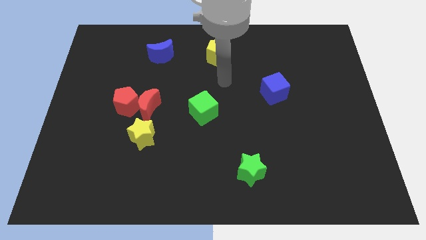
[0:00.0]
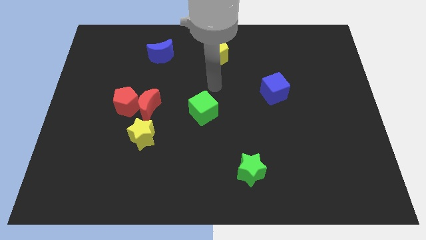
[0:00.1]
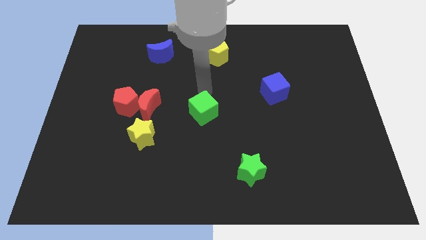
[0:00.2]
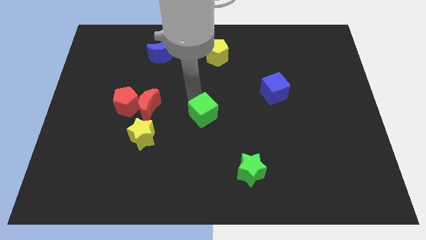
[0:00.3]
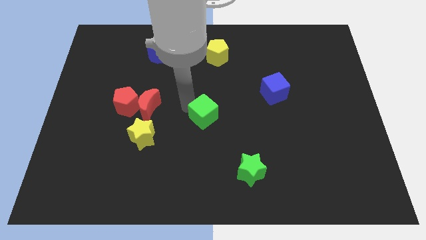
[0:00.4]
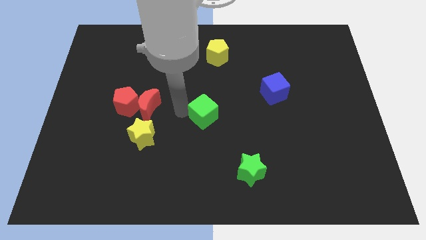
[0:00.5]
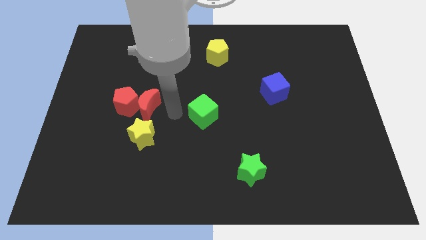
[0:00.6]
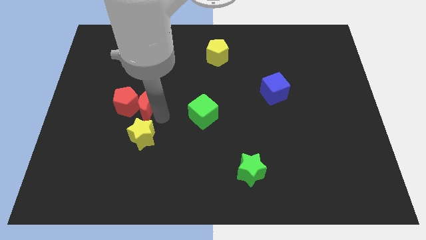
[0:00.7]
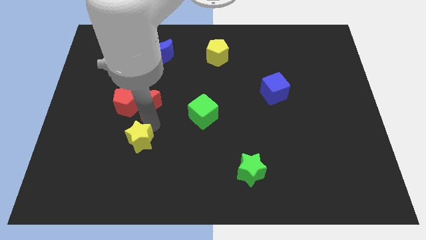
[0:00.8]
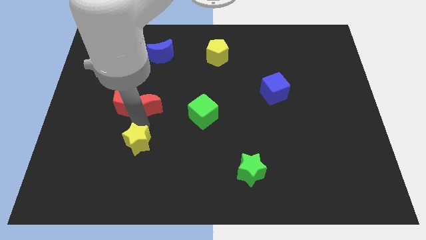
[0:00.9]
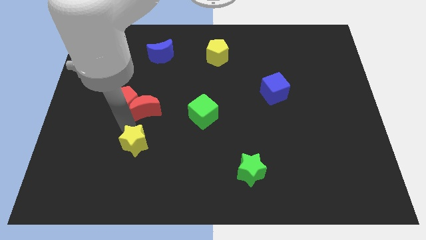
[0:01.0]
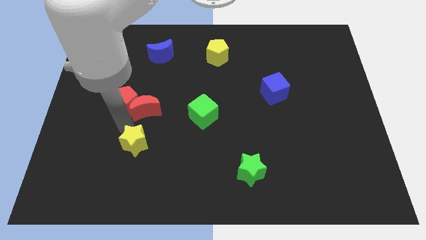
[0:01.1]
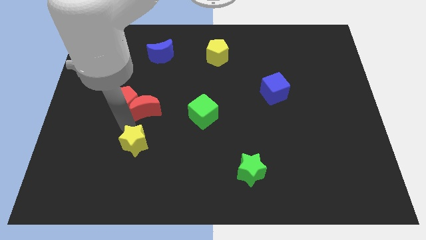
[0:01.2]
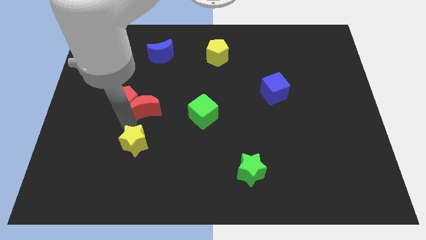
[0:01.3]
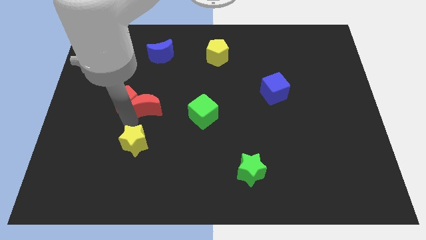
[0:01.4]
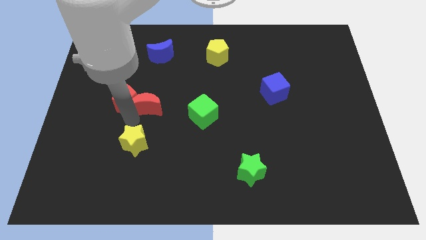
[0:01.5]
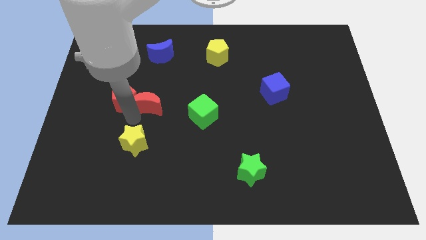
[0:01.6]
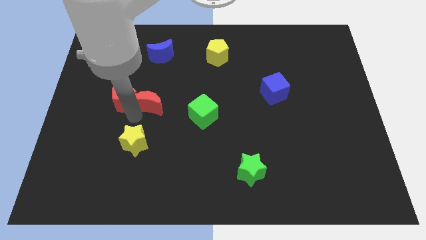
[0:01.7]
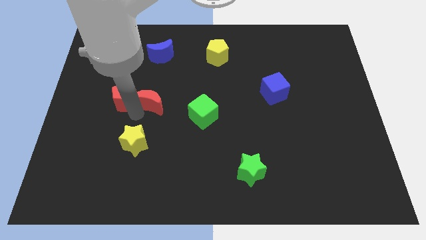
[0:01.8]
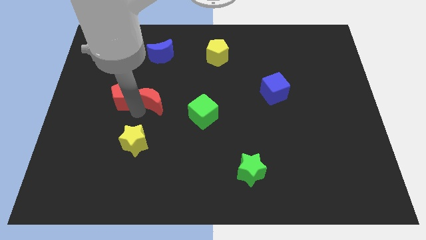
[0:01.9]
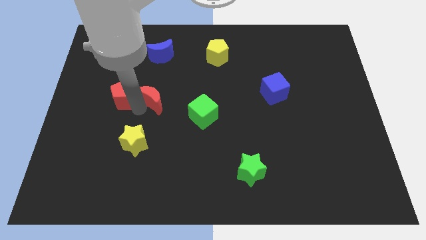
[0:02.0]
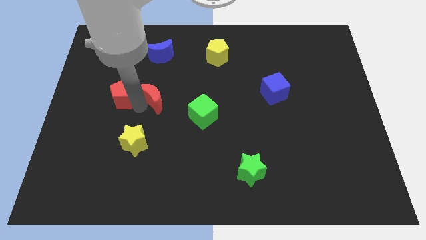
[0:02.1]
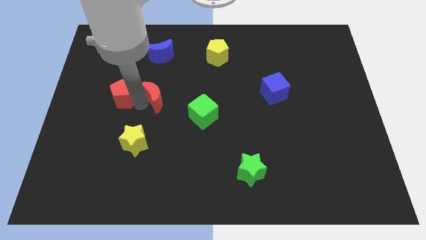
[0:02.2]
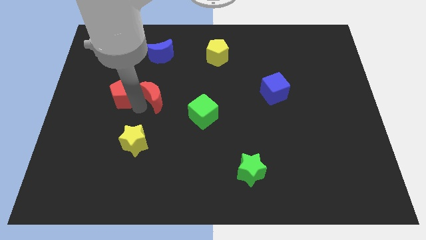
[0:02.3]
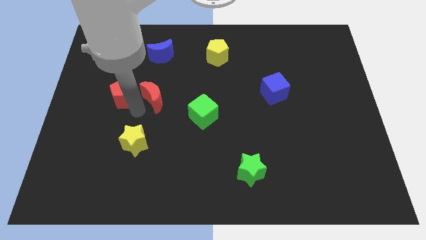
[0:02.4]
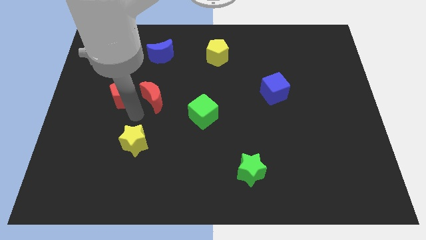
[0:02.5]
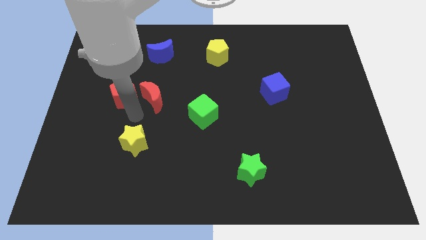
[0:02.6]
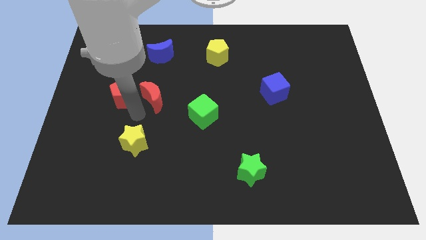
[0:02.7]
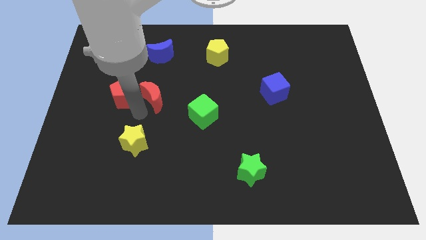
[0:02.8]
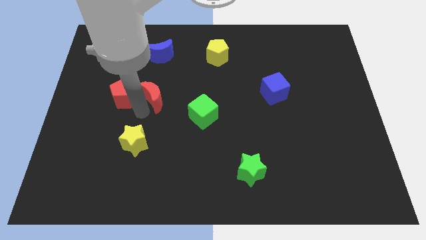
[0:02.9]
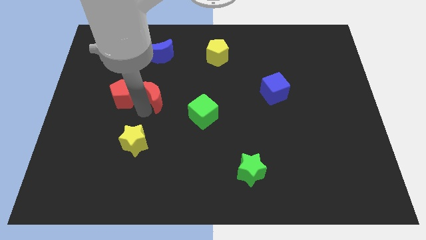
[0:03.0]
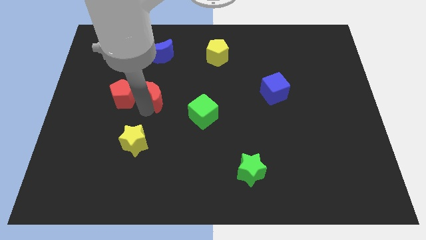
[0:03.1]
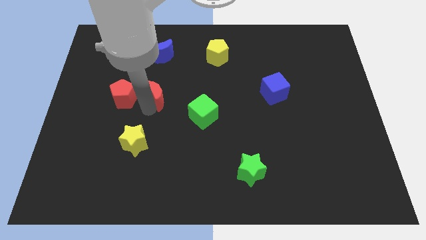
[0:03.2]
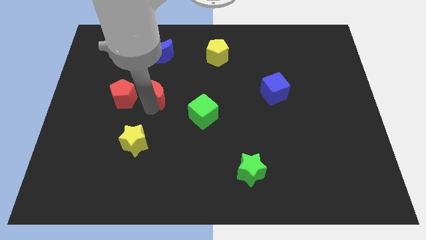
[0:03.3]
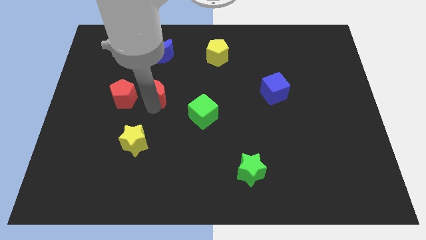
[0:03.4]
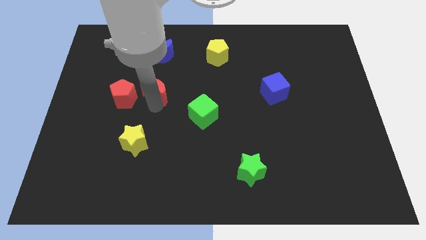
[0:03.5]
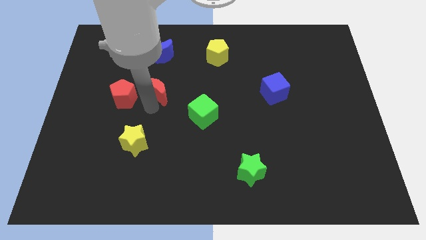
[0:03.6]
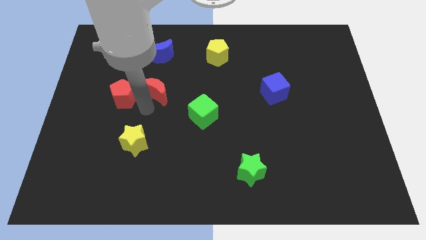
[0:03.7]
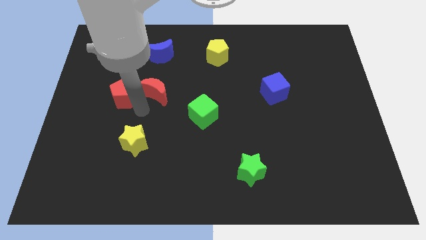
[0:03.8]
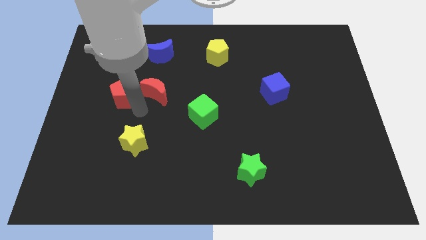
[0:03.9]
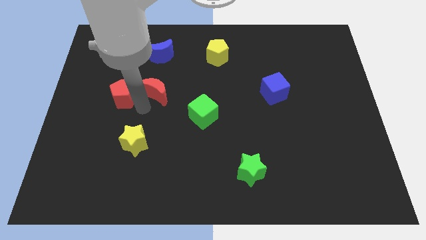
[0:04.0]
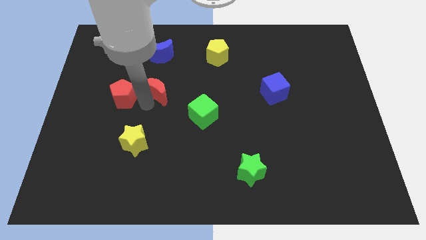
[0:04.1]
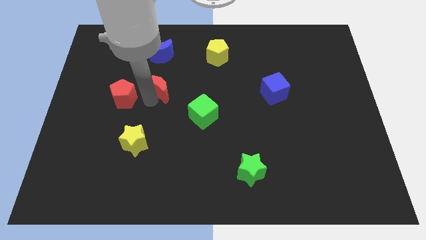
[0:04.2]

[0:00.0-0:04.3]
move the red moon away from the red pentagon and yellow star

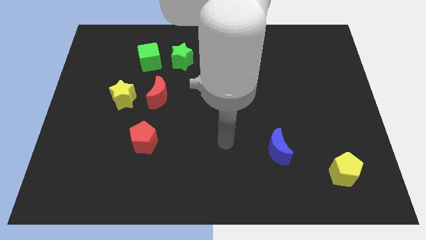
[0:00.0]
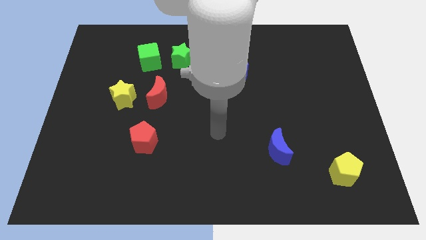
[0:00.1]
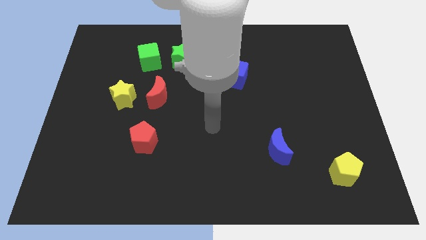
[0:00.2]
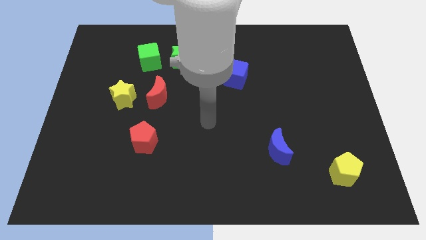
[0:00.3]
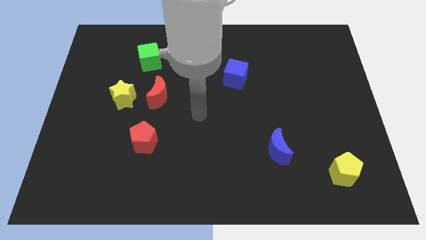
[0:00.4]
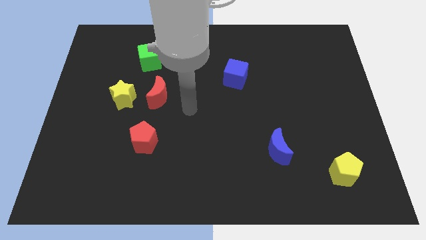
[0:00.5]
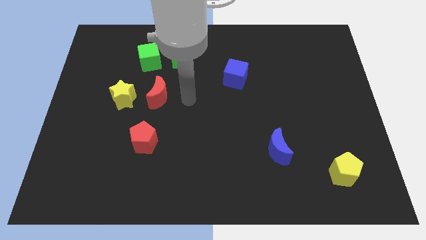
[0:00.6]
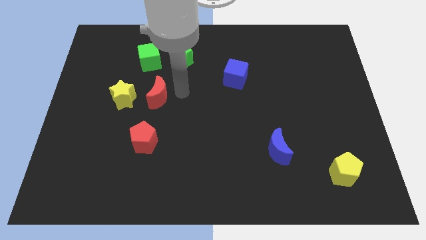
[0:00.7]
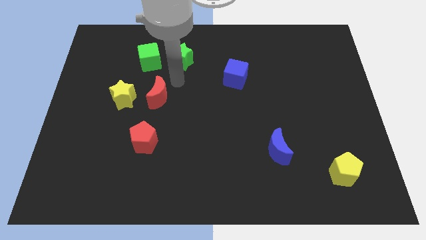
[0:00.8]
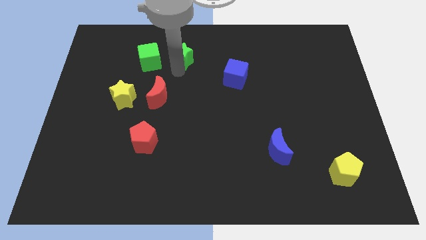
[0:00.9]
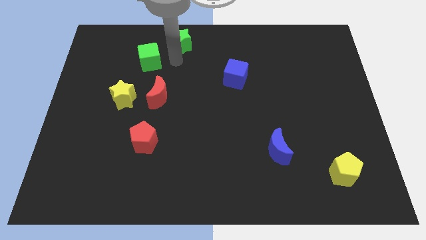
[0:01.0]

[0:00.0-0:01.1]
separate the green cube from the green star

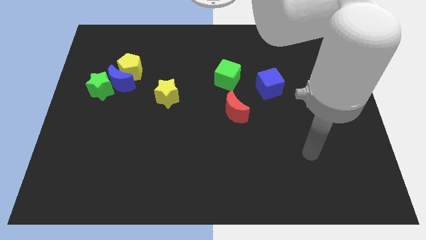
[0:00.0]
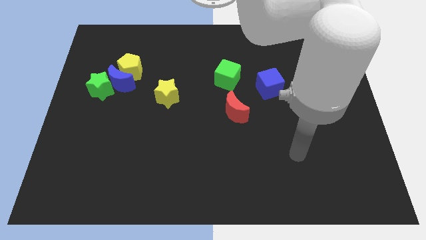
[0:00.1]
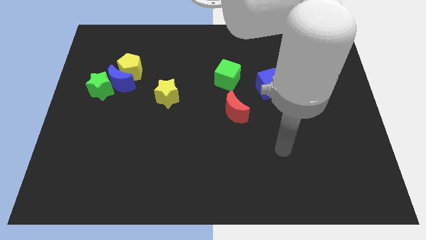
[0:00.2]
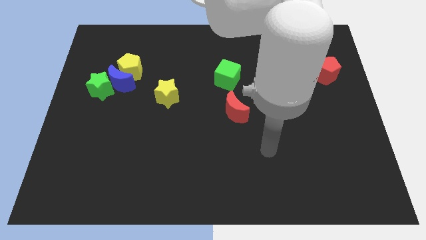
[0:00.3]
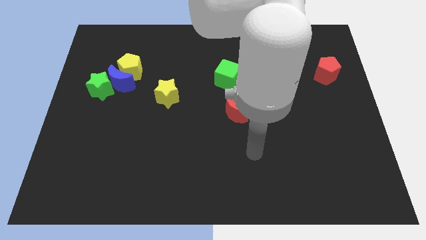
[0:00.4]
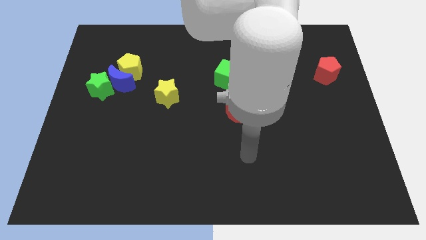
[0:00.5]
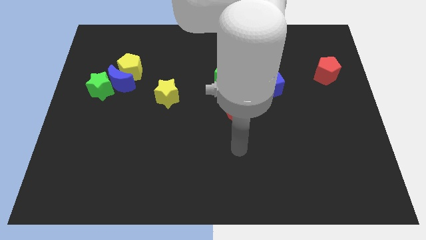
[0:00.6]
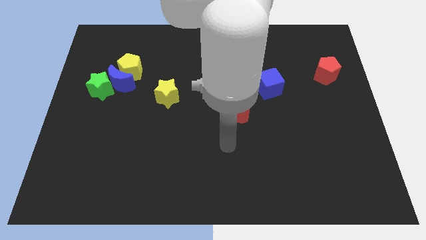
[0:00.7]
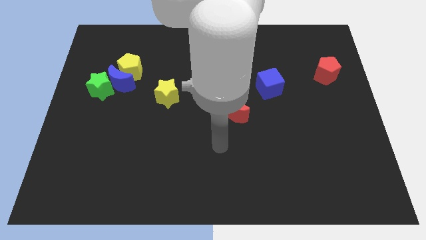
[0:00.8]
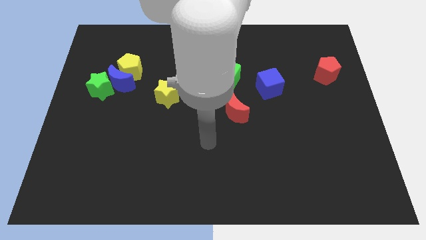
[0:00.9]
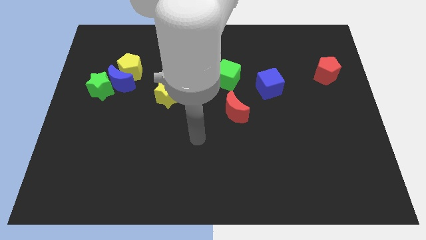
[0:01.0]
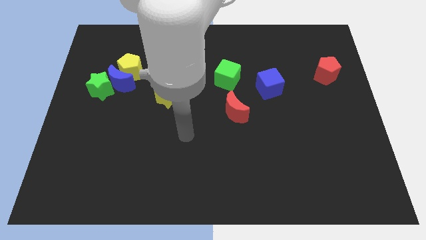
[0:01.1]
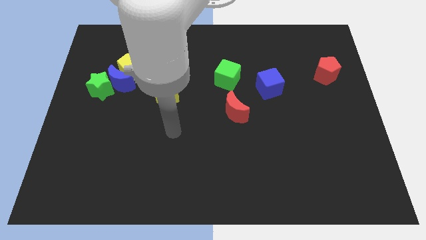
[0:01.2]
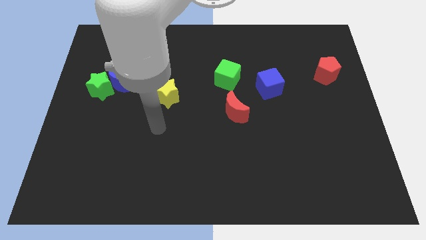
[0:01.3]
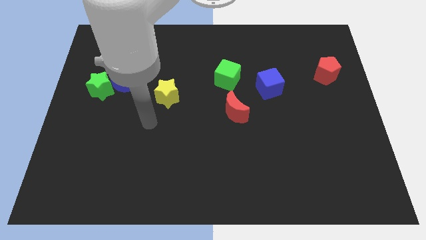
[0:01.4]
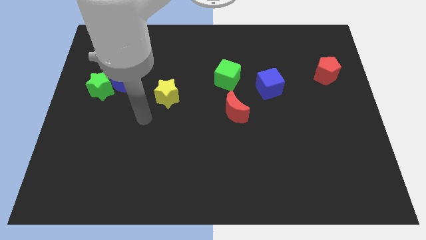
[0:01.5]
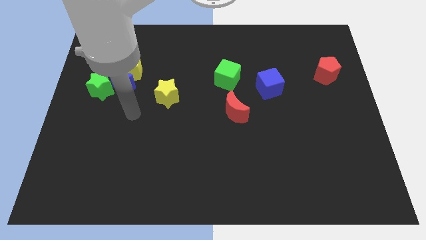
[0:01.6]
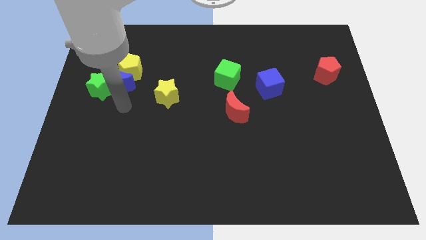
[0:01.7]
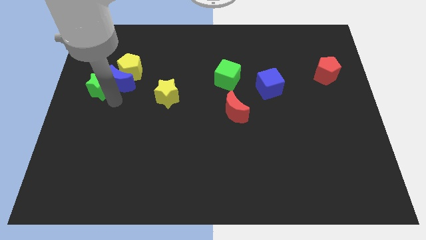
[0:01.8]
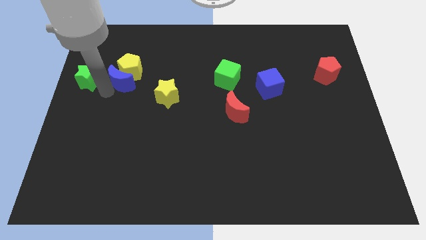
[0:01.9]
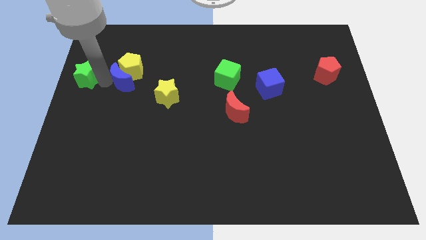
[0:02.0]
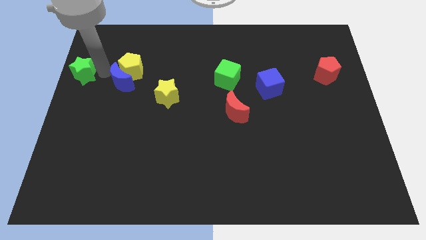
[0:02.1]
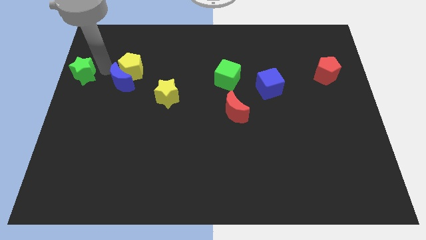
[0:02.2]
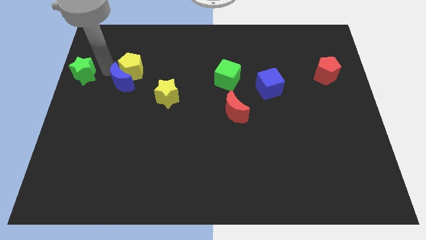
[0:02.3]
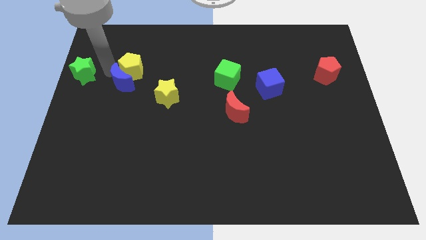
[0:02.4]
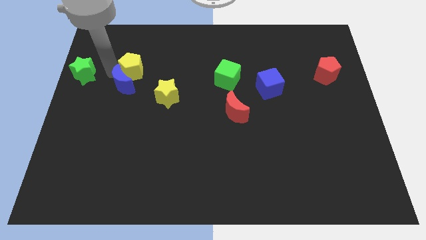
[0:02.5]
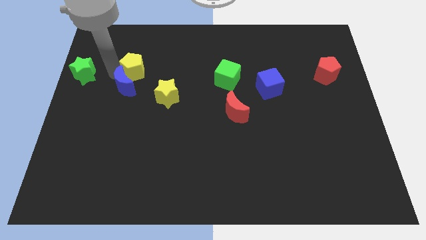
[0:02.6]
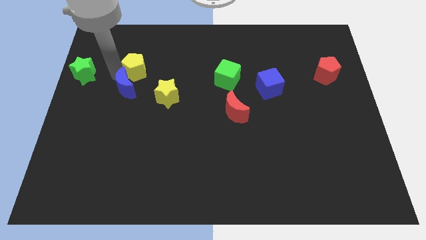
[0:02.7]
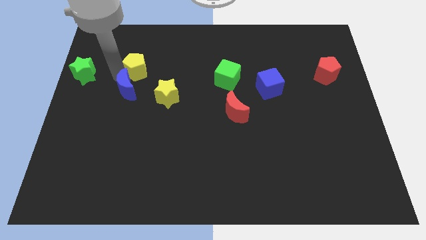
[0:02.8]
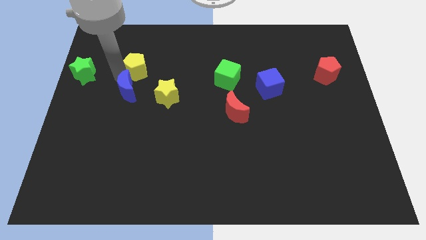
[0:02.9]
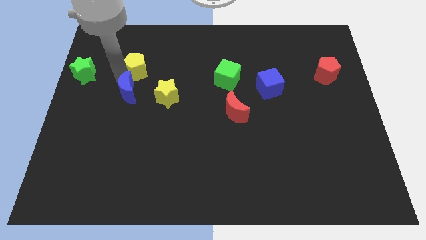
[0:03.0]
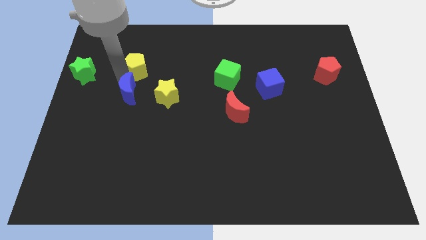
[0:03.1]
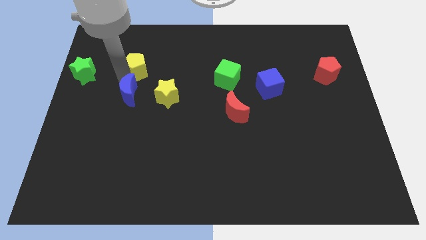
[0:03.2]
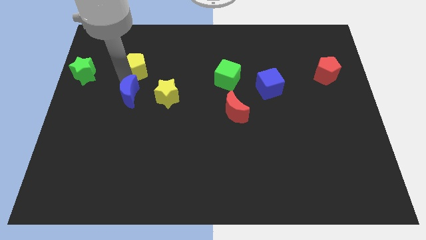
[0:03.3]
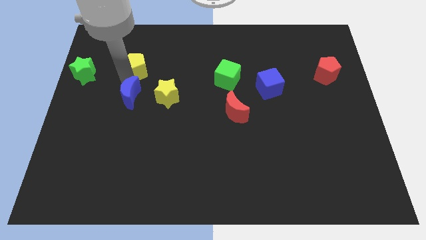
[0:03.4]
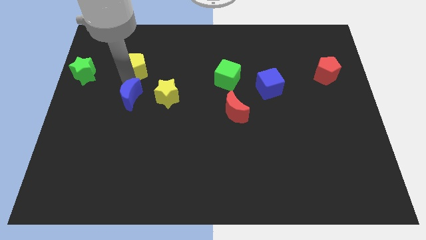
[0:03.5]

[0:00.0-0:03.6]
pull the blue moon apart from the green star and yellow pentagon

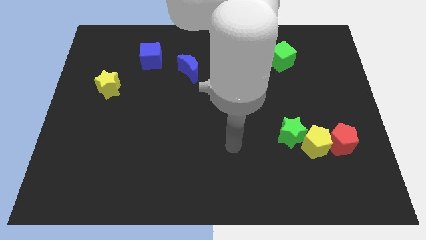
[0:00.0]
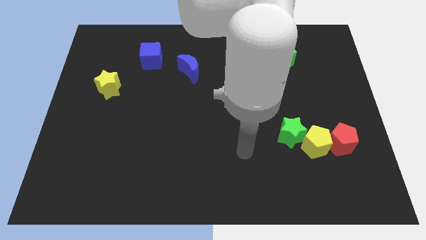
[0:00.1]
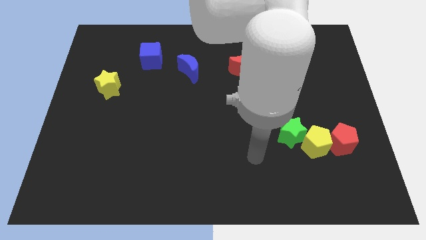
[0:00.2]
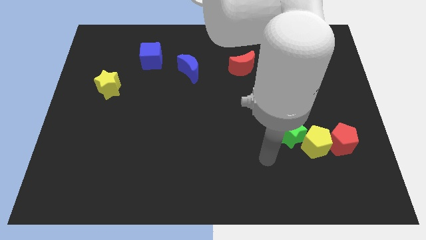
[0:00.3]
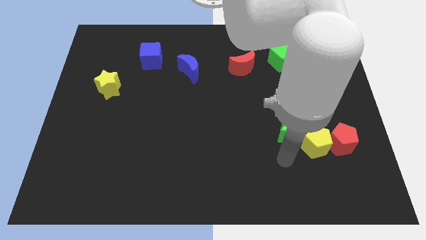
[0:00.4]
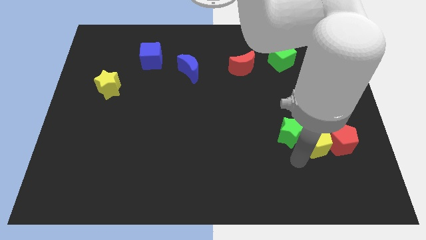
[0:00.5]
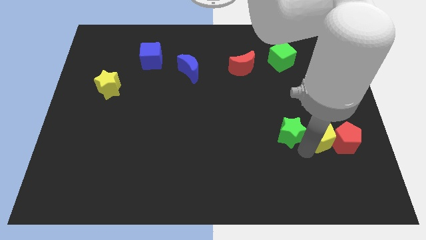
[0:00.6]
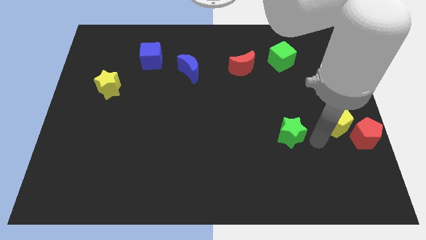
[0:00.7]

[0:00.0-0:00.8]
move the green star away from the yellow pentagon
